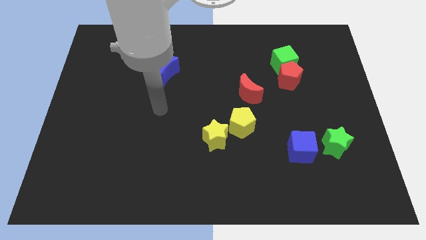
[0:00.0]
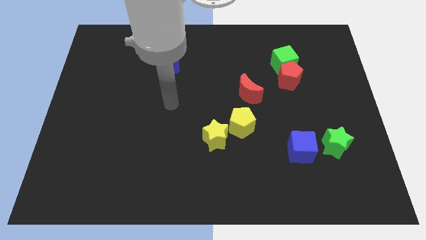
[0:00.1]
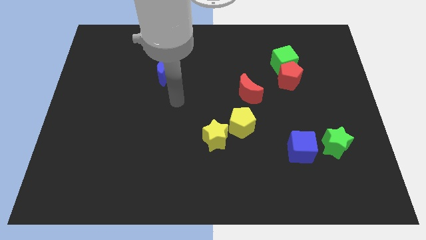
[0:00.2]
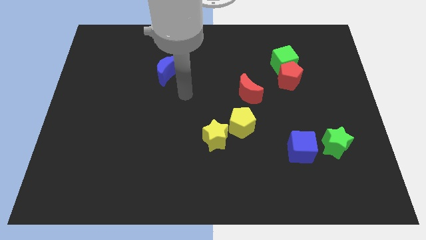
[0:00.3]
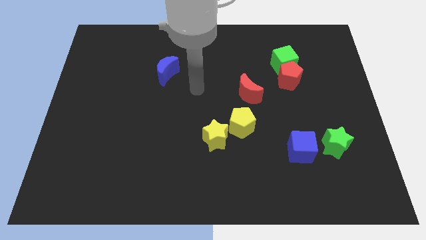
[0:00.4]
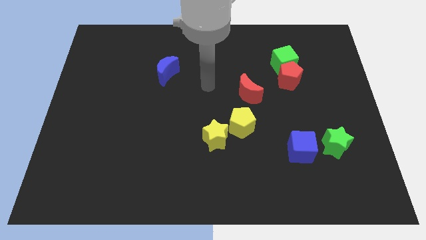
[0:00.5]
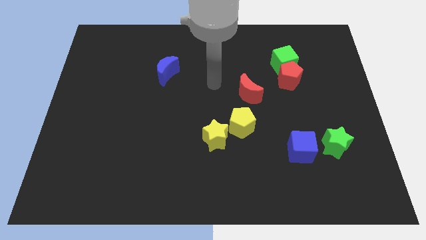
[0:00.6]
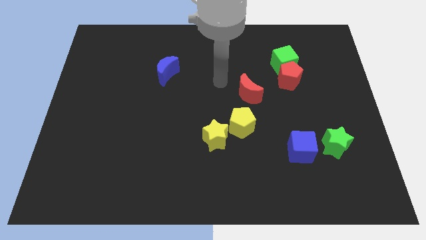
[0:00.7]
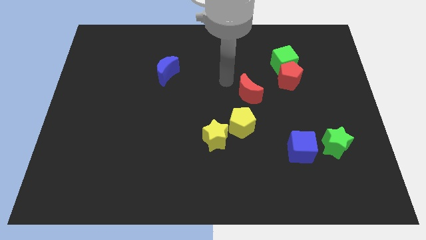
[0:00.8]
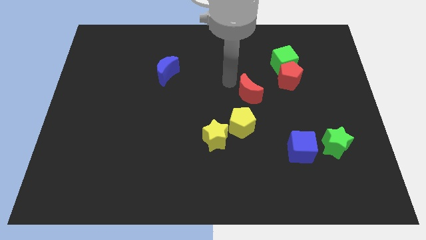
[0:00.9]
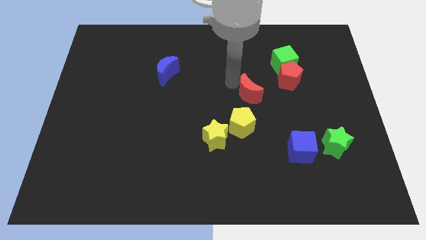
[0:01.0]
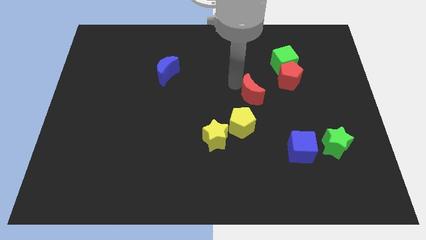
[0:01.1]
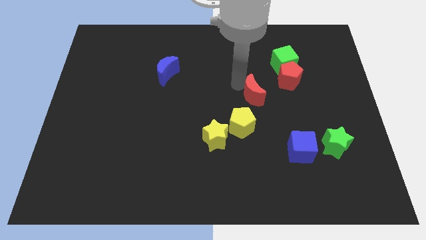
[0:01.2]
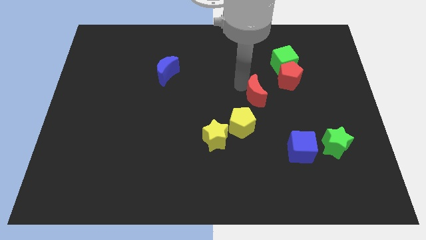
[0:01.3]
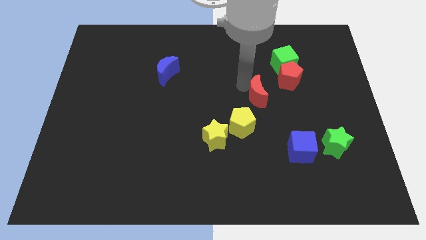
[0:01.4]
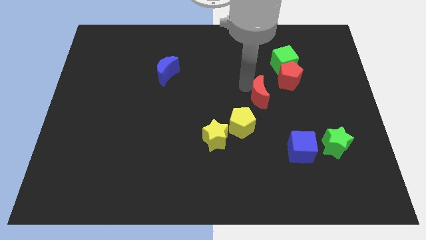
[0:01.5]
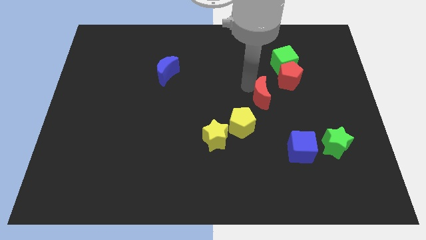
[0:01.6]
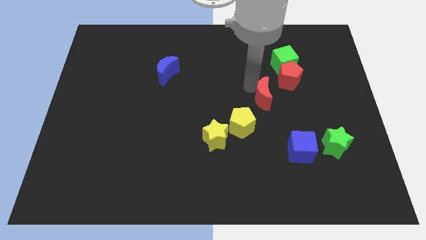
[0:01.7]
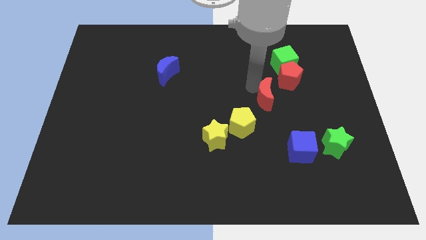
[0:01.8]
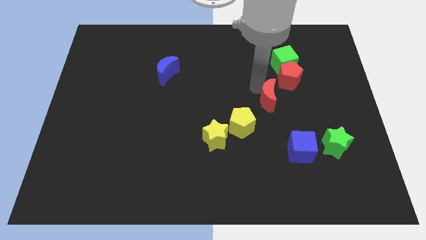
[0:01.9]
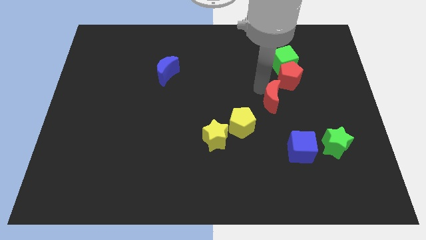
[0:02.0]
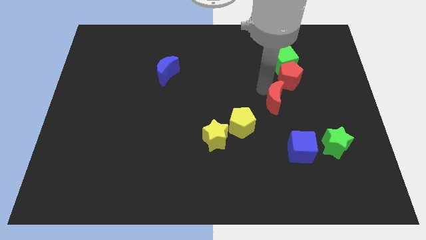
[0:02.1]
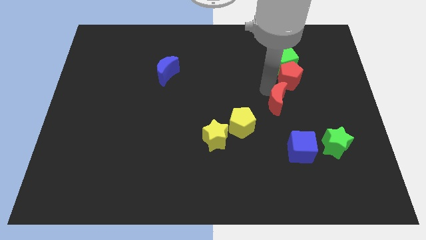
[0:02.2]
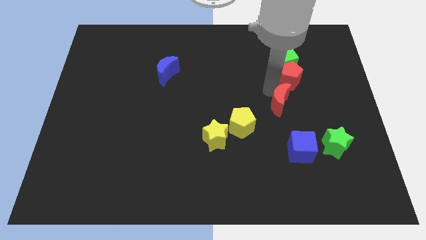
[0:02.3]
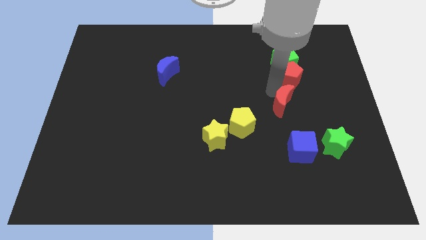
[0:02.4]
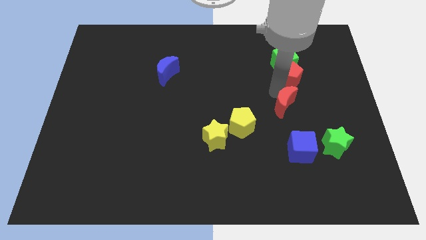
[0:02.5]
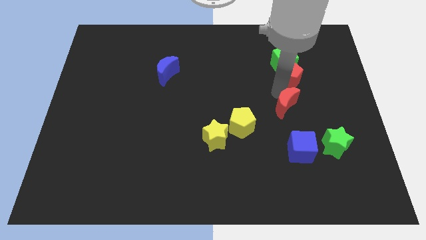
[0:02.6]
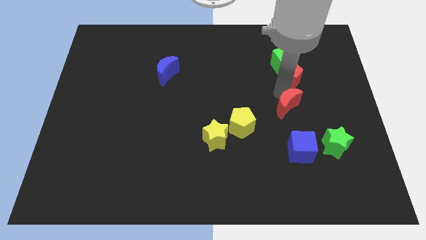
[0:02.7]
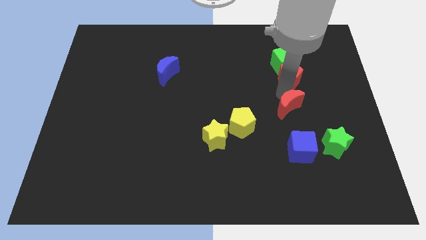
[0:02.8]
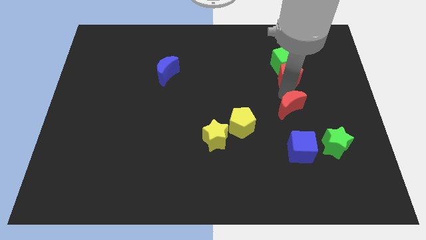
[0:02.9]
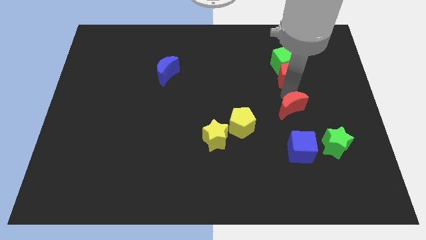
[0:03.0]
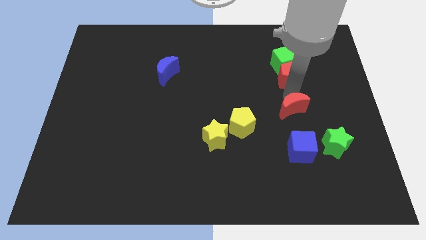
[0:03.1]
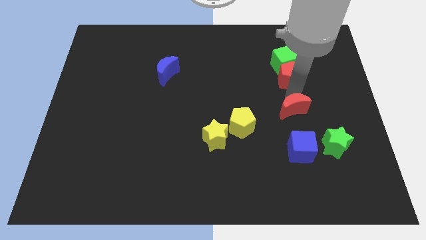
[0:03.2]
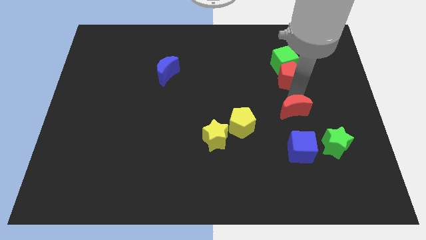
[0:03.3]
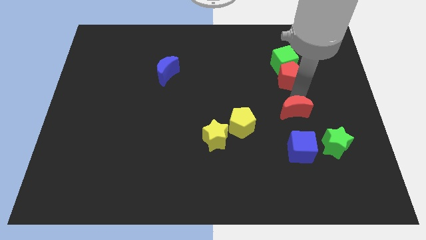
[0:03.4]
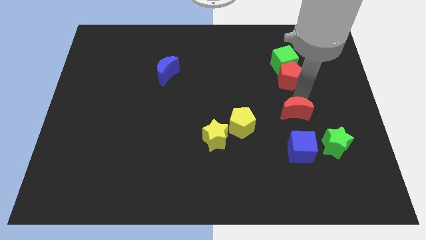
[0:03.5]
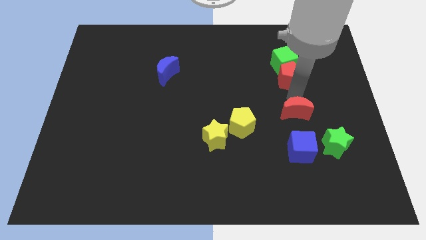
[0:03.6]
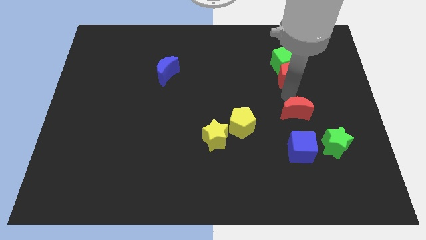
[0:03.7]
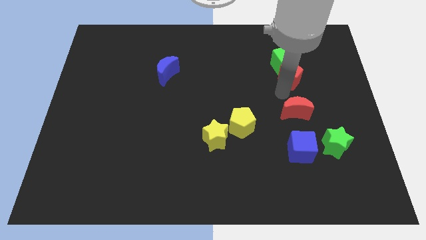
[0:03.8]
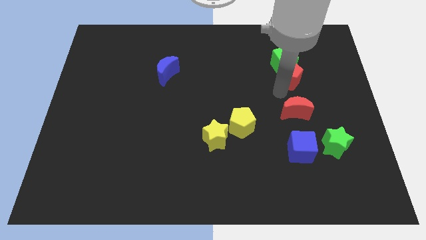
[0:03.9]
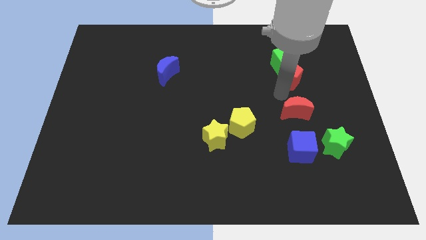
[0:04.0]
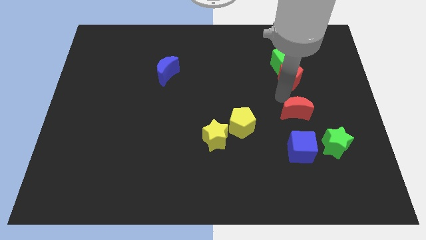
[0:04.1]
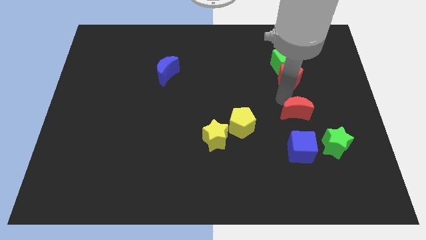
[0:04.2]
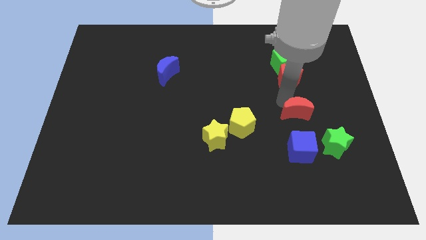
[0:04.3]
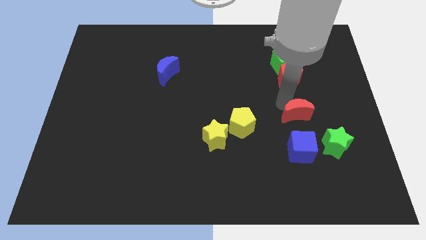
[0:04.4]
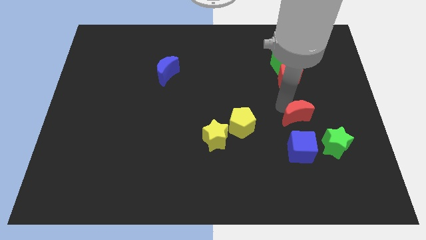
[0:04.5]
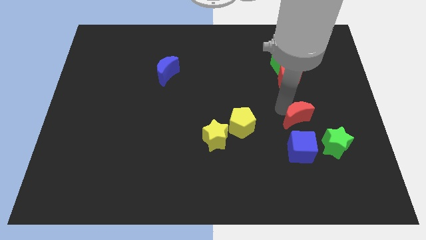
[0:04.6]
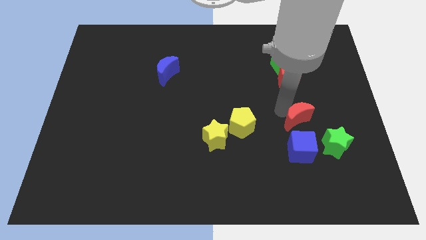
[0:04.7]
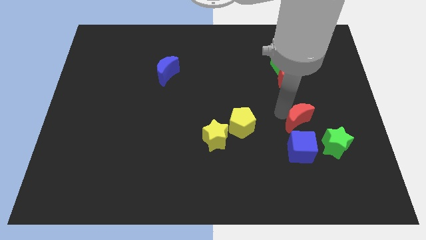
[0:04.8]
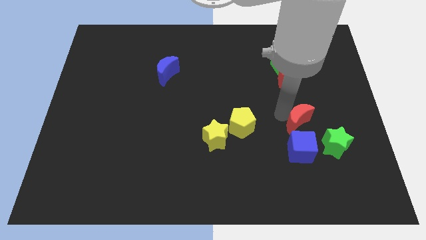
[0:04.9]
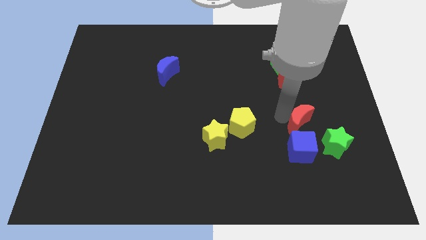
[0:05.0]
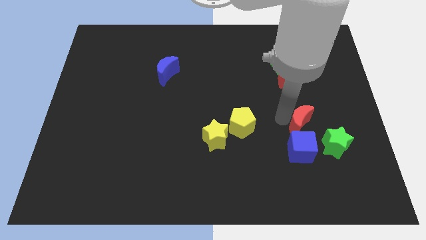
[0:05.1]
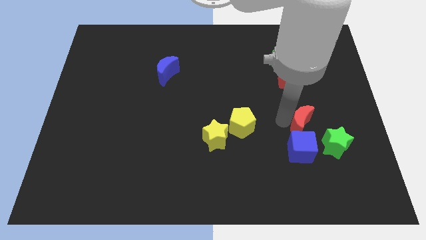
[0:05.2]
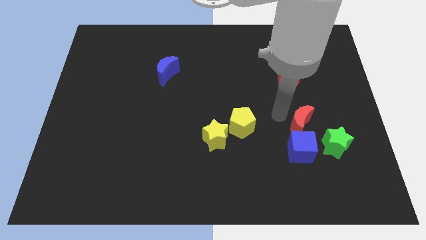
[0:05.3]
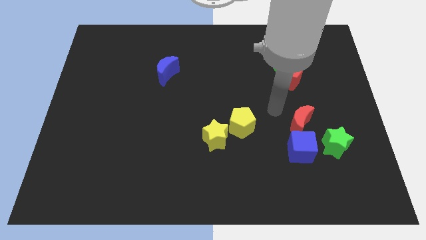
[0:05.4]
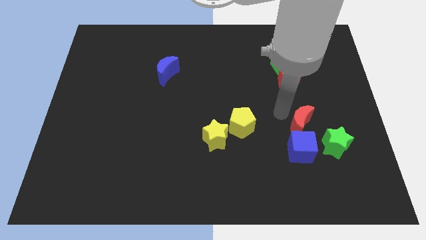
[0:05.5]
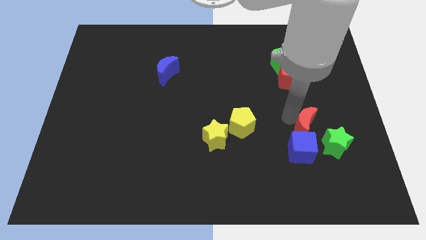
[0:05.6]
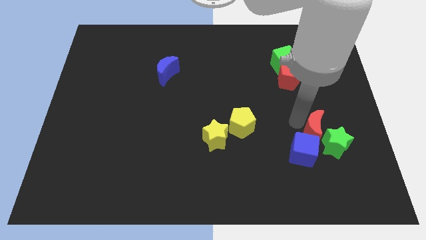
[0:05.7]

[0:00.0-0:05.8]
move the red moon to the green star

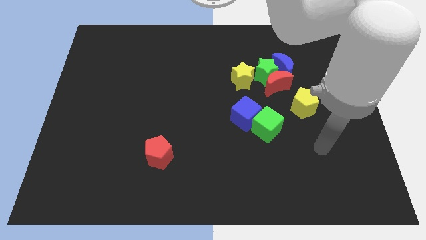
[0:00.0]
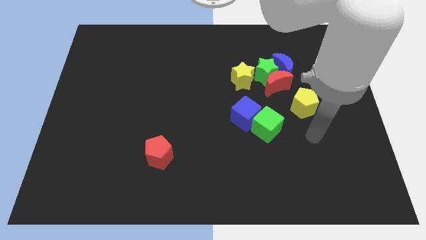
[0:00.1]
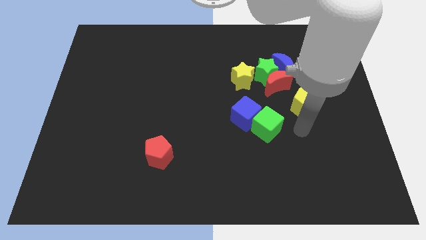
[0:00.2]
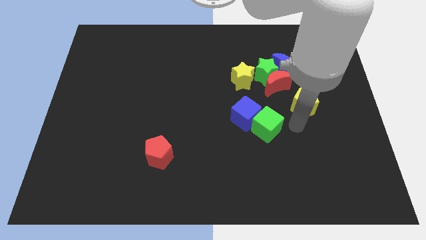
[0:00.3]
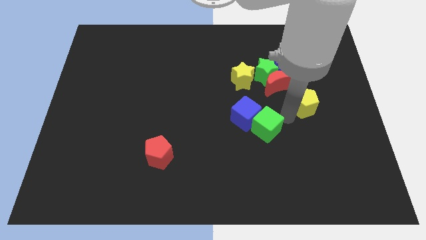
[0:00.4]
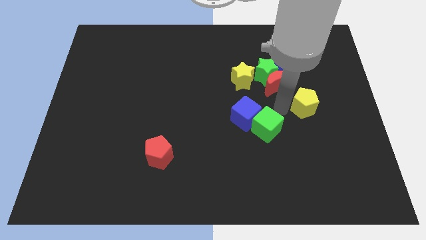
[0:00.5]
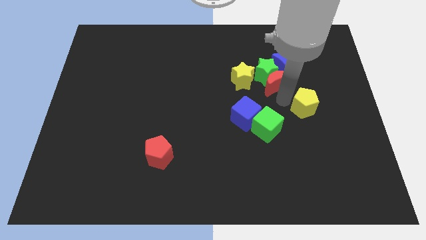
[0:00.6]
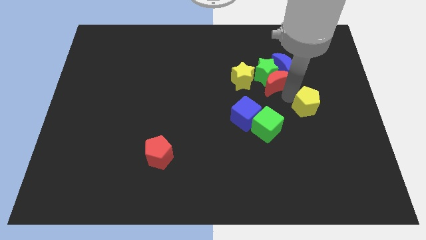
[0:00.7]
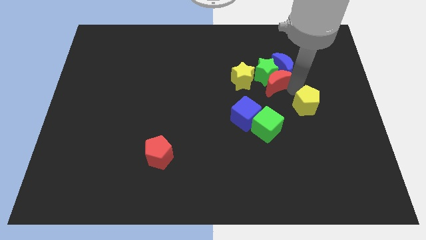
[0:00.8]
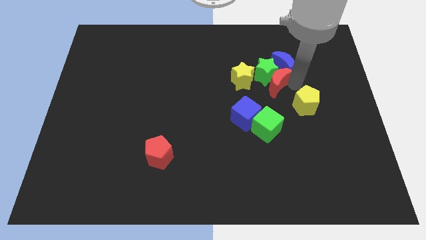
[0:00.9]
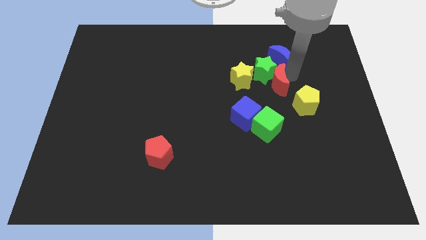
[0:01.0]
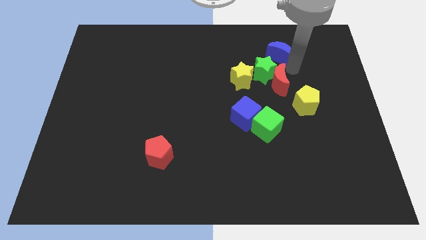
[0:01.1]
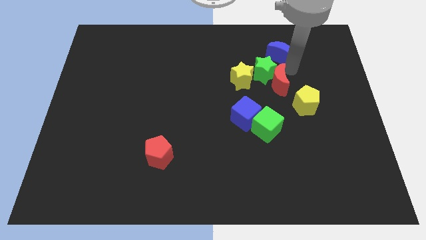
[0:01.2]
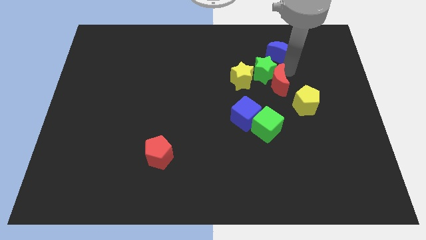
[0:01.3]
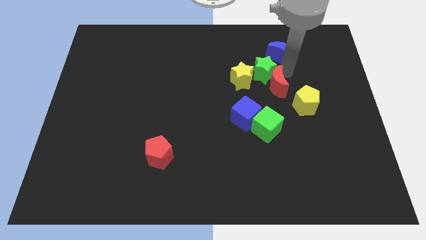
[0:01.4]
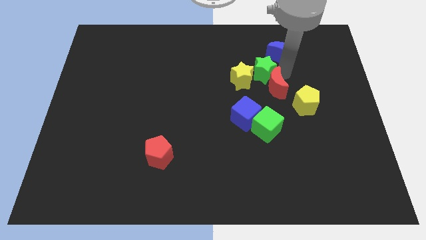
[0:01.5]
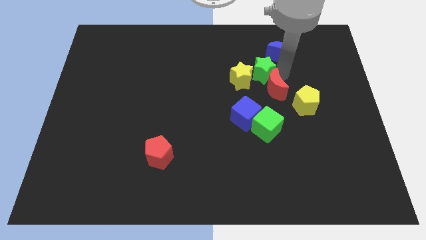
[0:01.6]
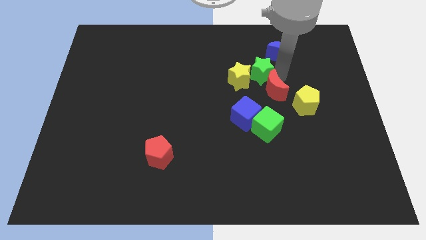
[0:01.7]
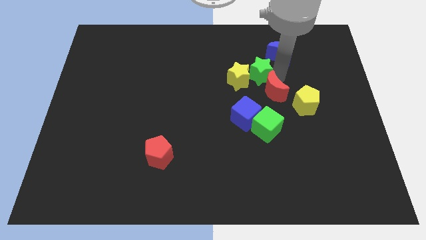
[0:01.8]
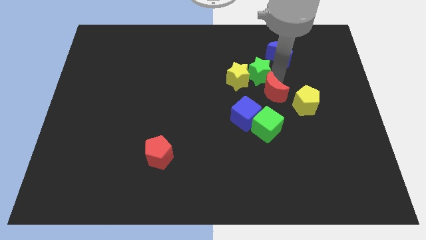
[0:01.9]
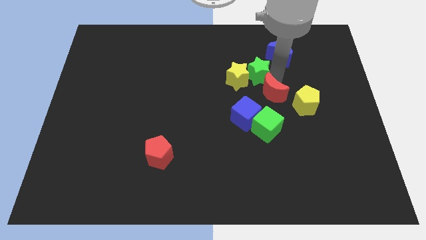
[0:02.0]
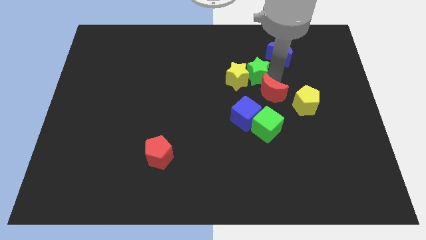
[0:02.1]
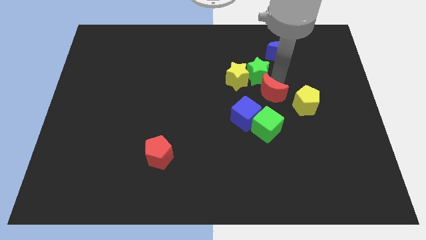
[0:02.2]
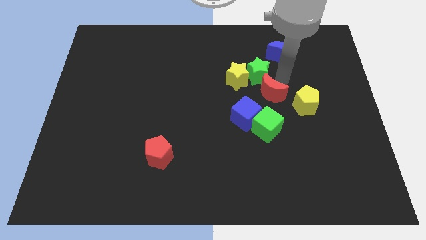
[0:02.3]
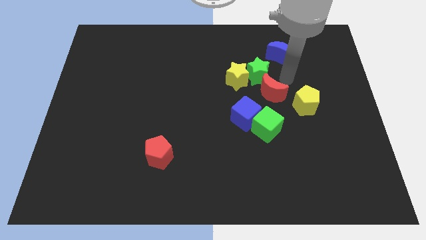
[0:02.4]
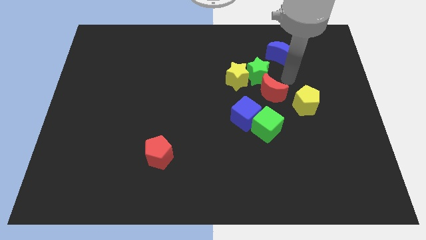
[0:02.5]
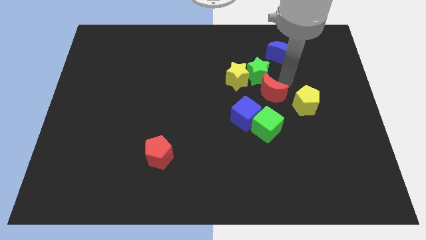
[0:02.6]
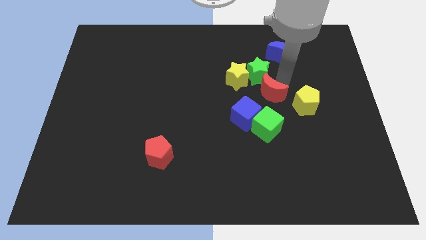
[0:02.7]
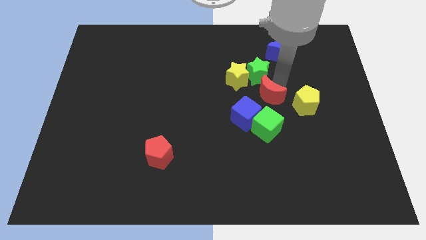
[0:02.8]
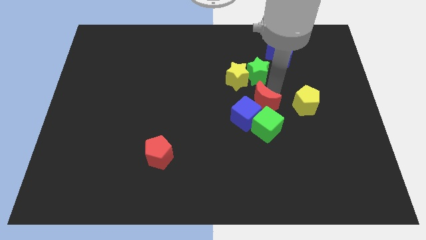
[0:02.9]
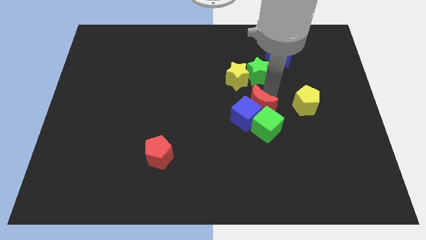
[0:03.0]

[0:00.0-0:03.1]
push the red moon next to the blue cube
